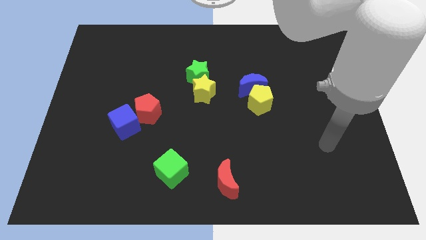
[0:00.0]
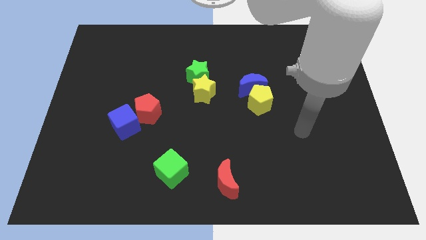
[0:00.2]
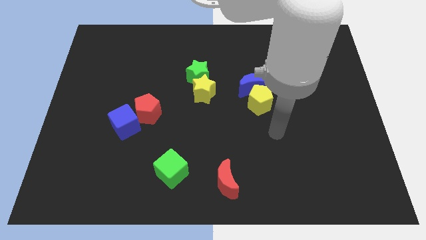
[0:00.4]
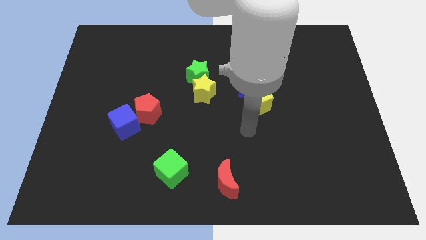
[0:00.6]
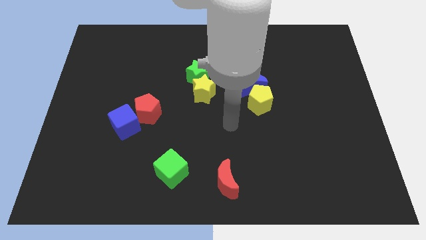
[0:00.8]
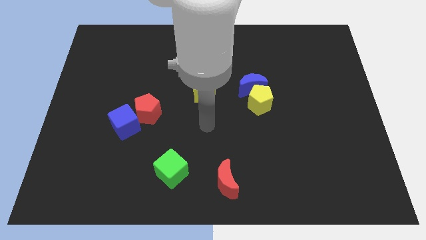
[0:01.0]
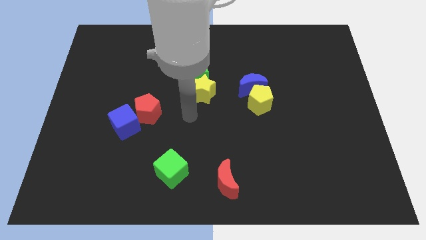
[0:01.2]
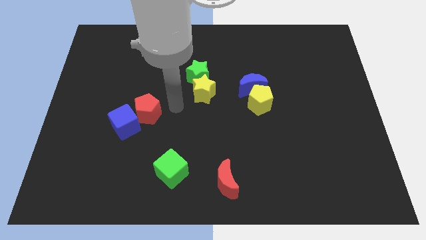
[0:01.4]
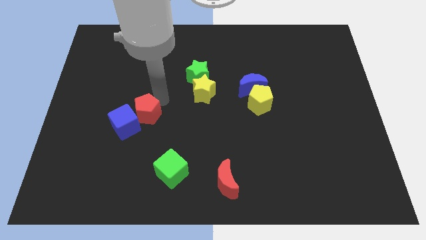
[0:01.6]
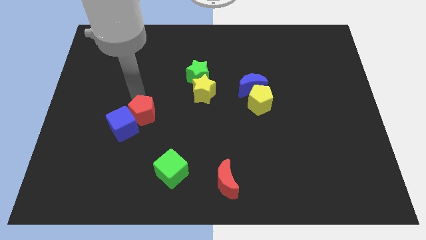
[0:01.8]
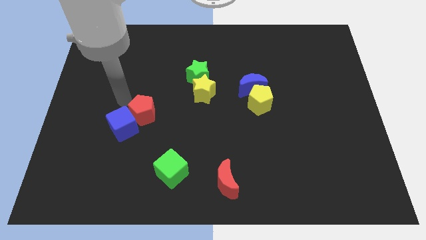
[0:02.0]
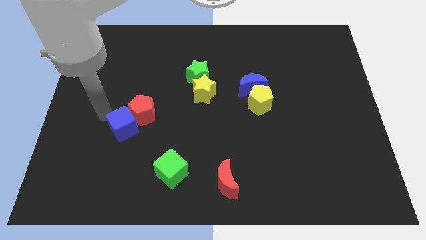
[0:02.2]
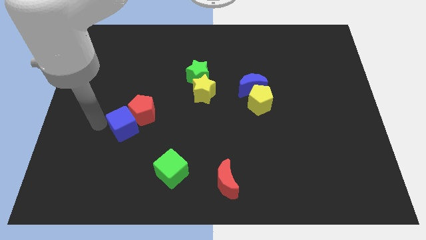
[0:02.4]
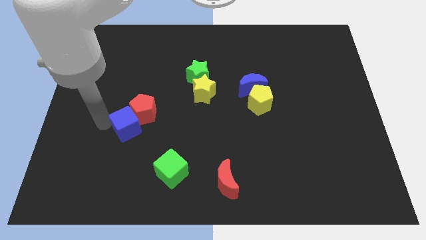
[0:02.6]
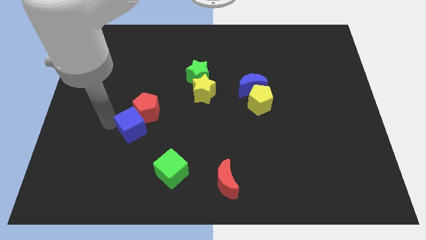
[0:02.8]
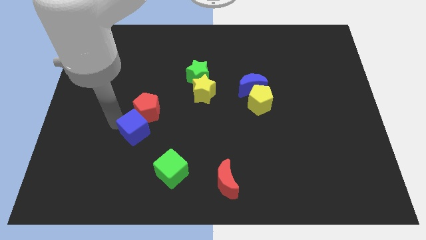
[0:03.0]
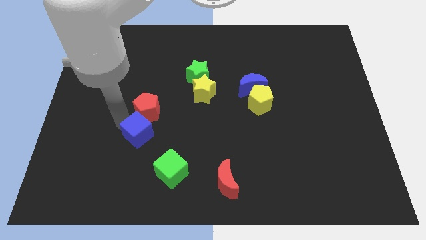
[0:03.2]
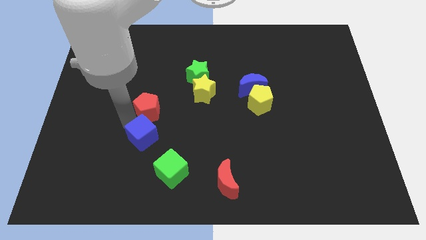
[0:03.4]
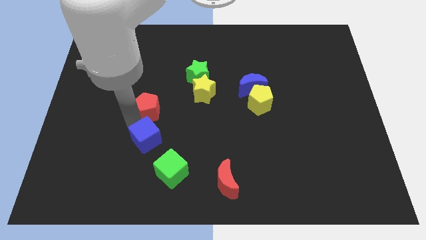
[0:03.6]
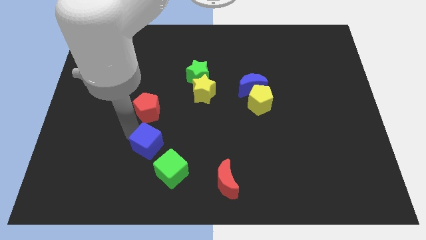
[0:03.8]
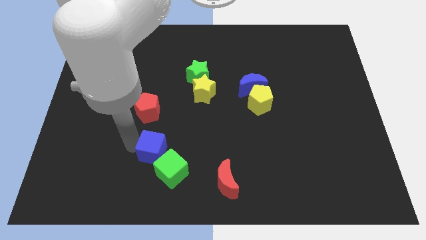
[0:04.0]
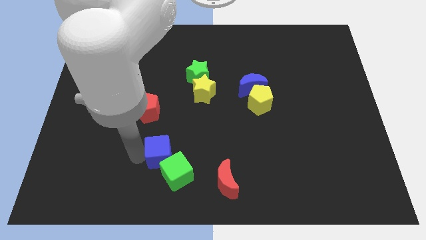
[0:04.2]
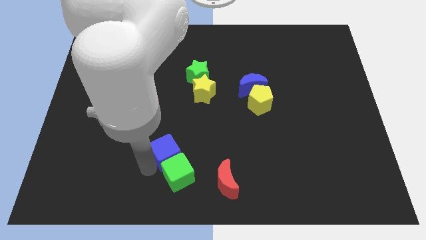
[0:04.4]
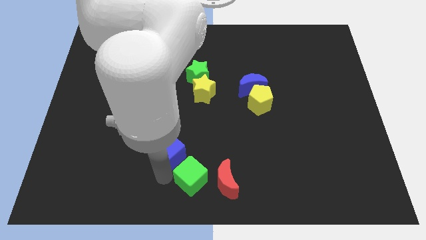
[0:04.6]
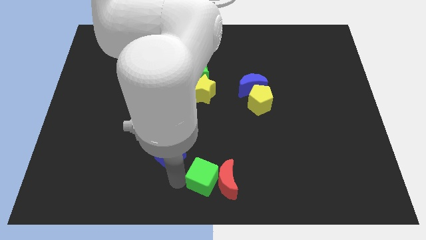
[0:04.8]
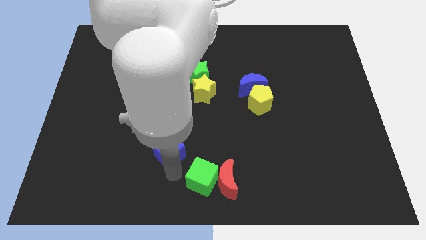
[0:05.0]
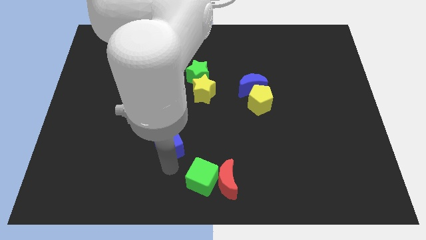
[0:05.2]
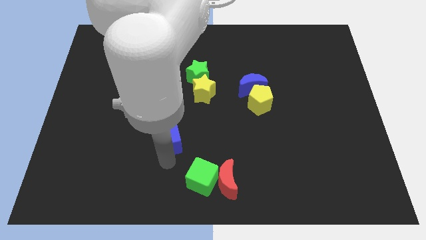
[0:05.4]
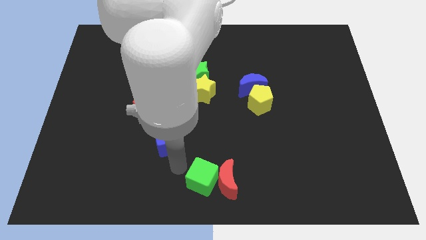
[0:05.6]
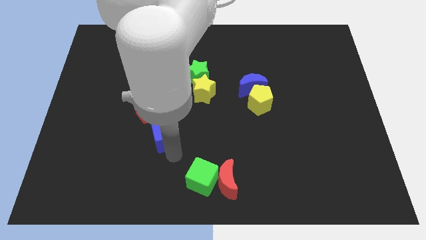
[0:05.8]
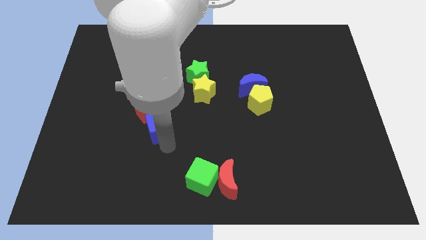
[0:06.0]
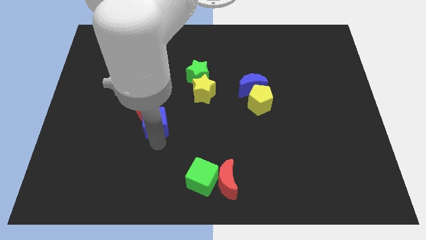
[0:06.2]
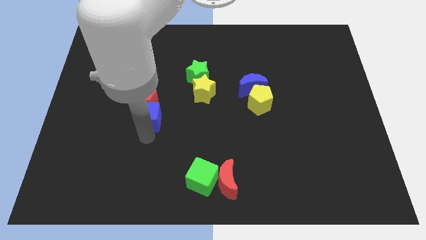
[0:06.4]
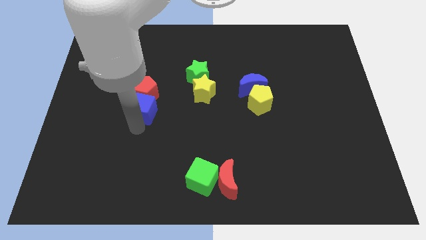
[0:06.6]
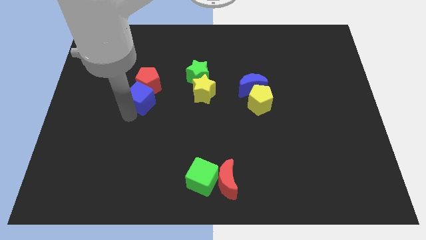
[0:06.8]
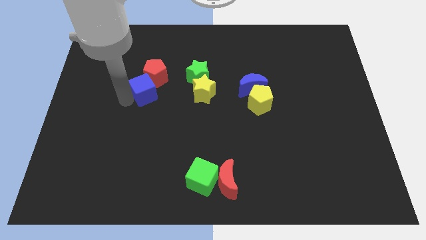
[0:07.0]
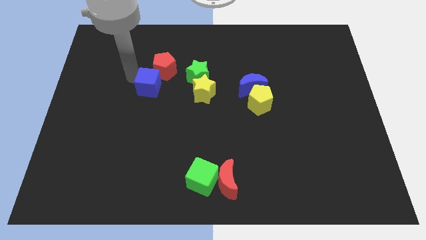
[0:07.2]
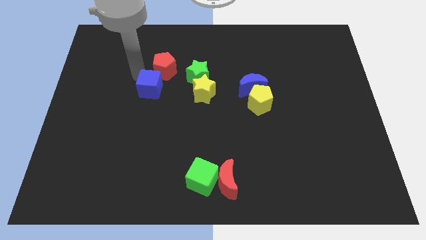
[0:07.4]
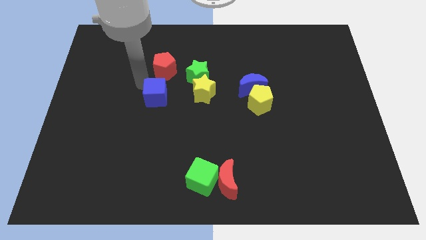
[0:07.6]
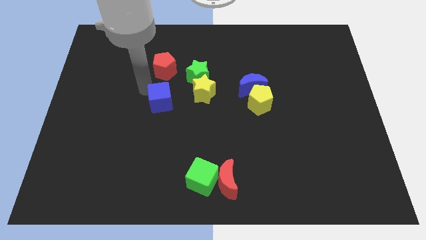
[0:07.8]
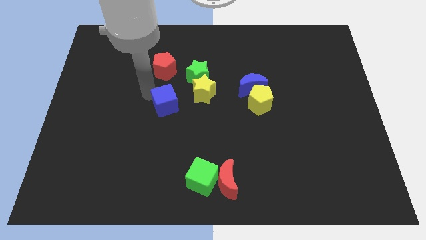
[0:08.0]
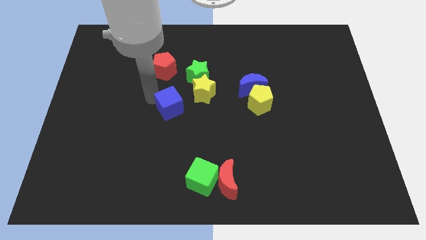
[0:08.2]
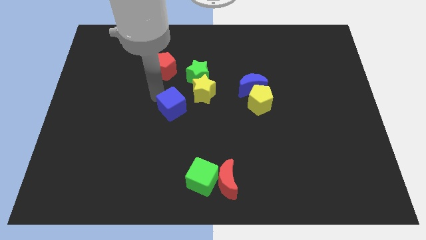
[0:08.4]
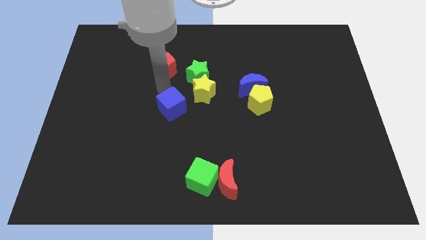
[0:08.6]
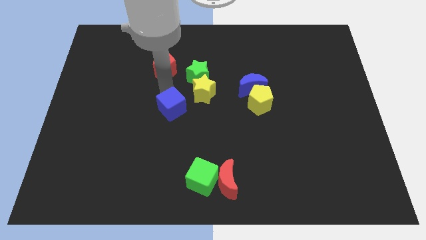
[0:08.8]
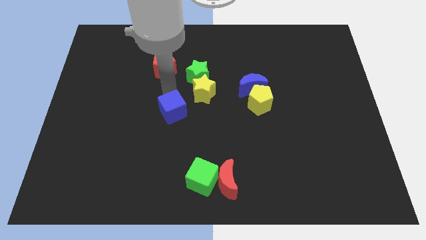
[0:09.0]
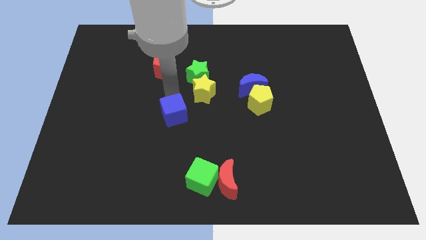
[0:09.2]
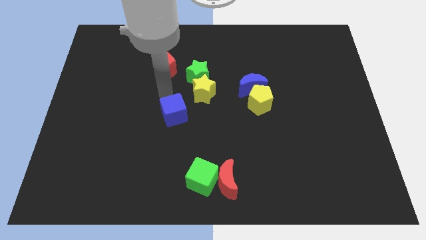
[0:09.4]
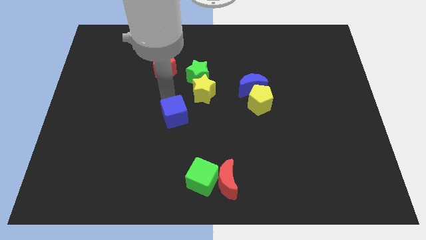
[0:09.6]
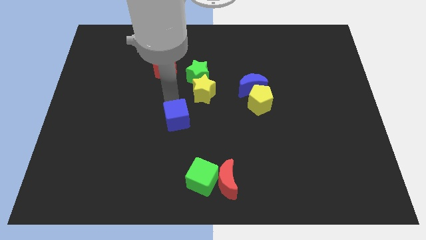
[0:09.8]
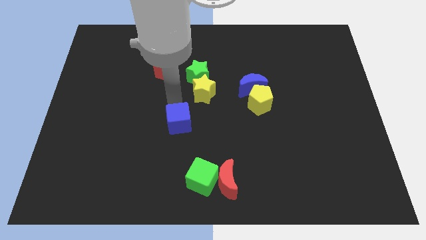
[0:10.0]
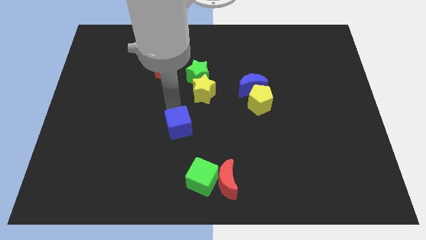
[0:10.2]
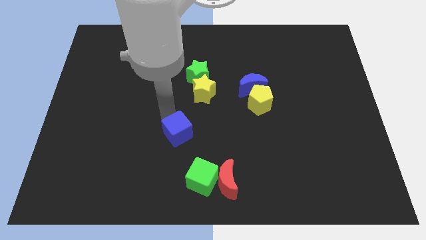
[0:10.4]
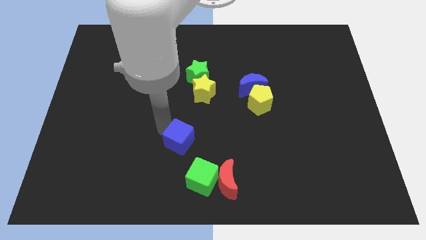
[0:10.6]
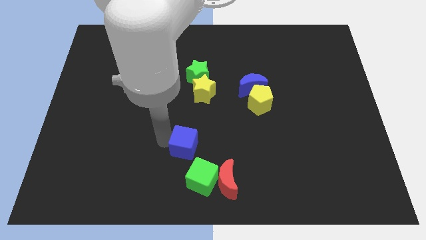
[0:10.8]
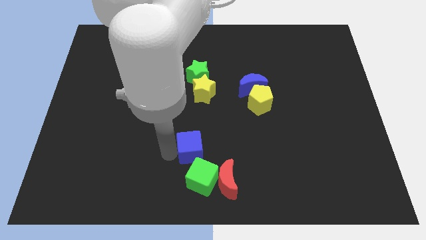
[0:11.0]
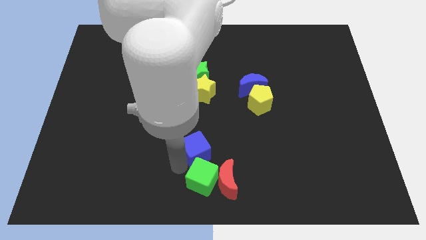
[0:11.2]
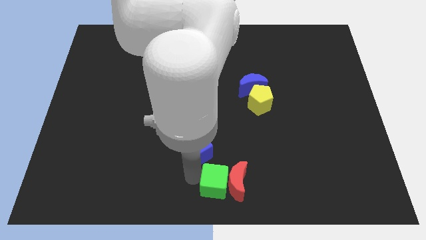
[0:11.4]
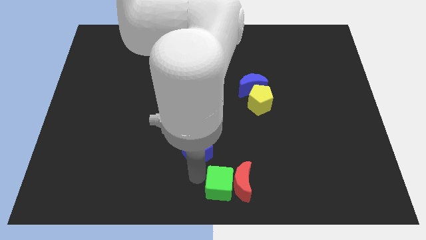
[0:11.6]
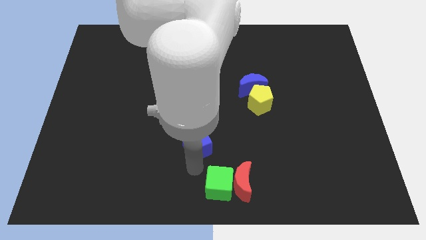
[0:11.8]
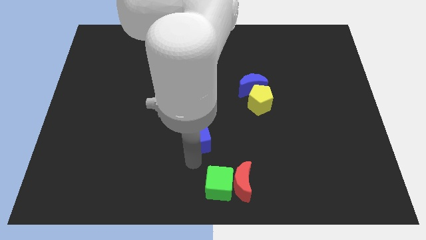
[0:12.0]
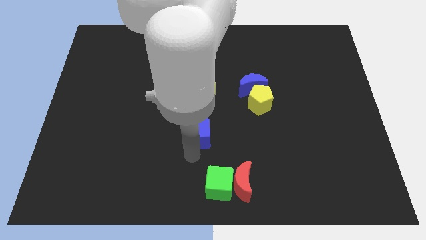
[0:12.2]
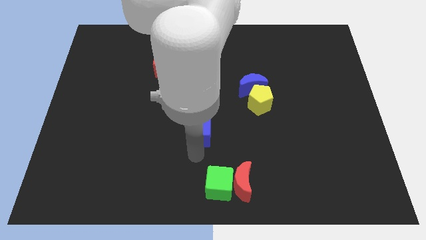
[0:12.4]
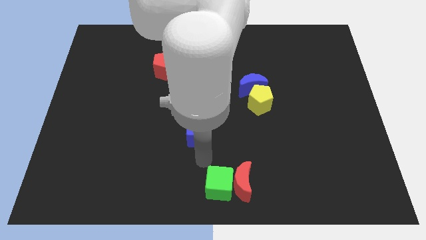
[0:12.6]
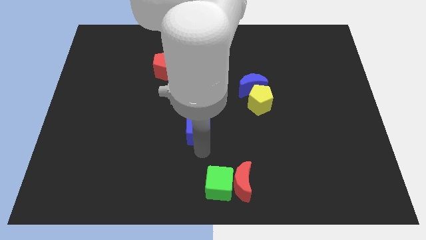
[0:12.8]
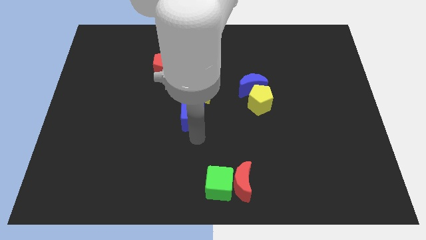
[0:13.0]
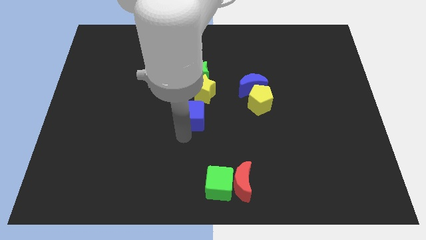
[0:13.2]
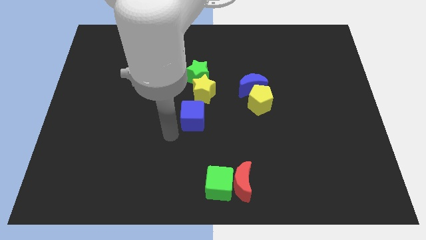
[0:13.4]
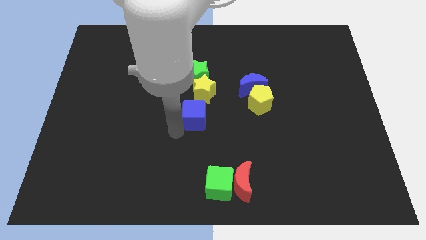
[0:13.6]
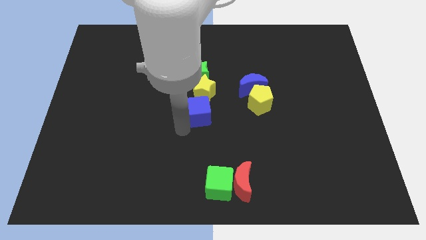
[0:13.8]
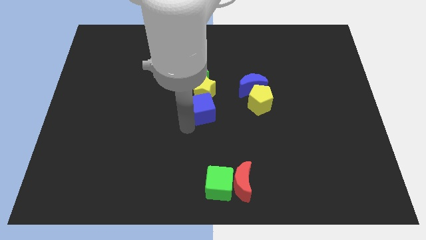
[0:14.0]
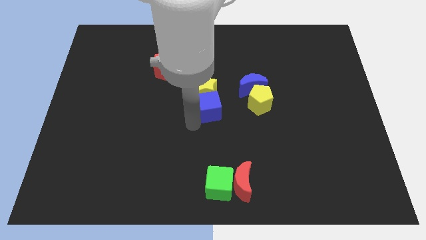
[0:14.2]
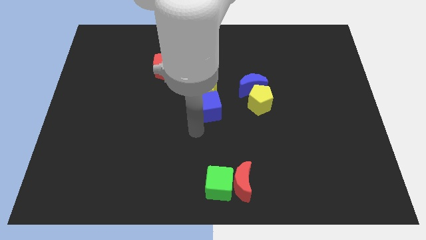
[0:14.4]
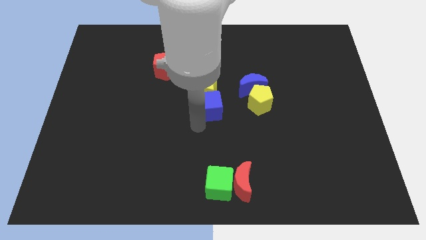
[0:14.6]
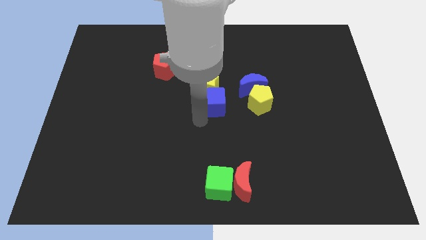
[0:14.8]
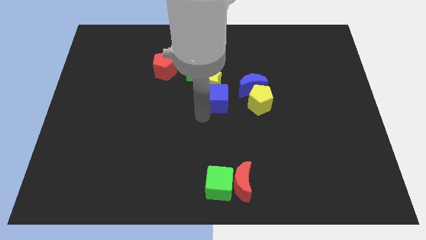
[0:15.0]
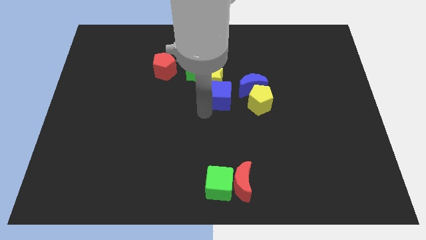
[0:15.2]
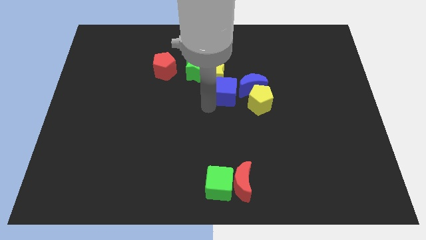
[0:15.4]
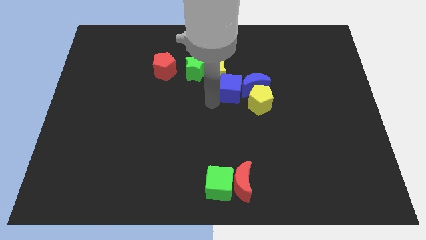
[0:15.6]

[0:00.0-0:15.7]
put the blue cube diagonally up and to the left of the blue moon
